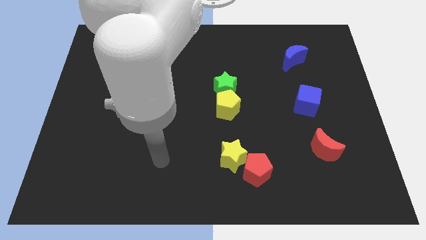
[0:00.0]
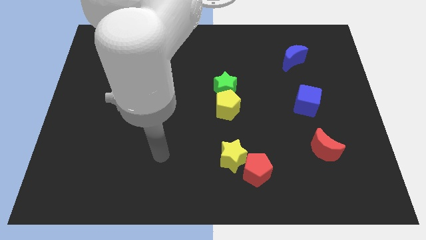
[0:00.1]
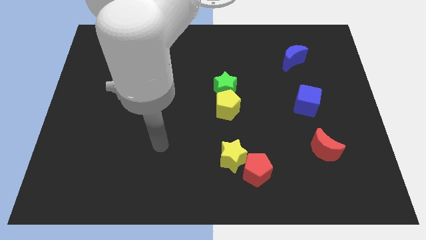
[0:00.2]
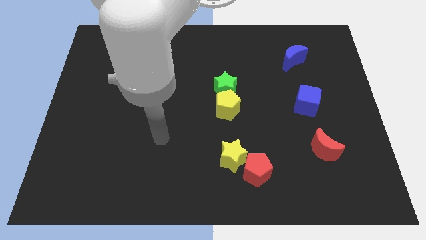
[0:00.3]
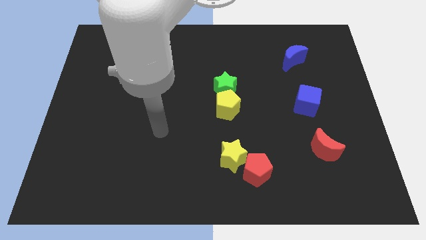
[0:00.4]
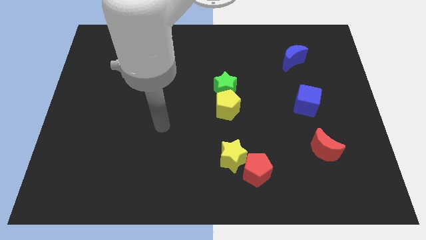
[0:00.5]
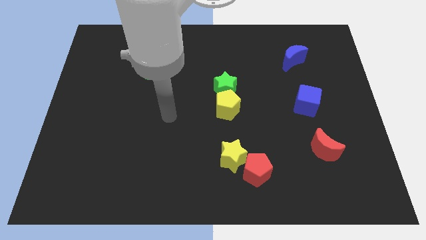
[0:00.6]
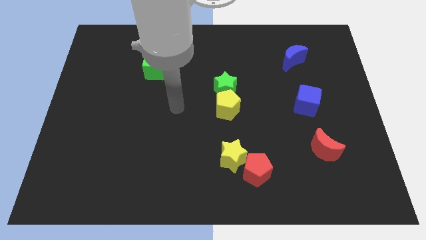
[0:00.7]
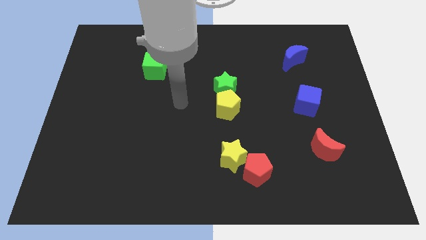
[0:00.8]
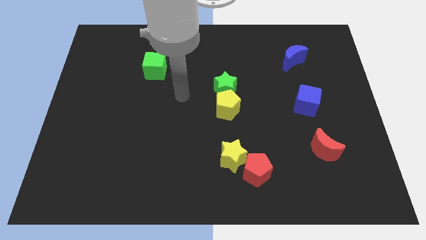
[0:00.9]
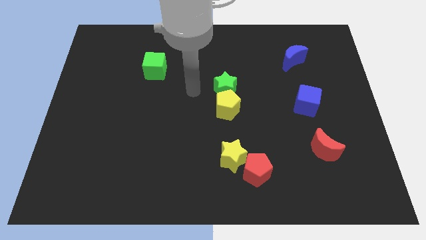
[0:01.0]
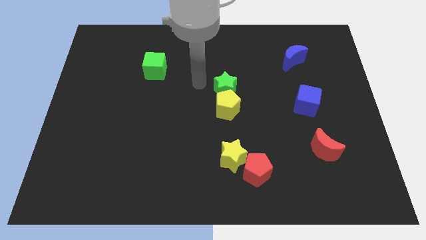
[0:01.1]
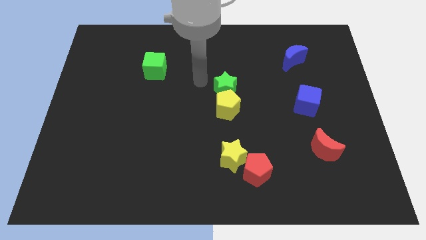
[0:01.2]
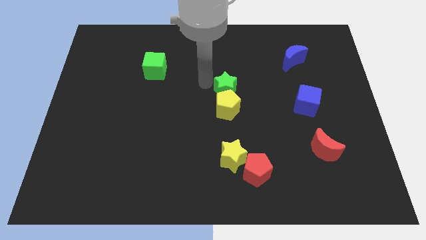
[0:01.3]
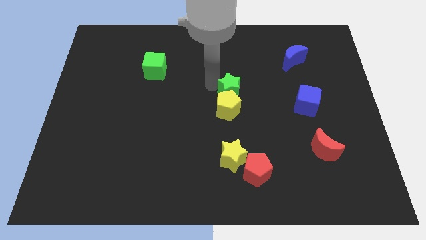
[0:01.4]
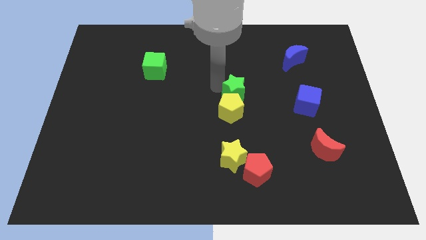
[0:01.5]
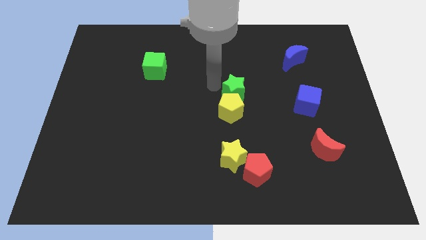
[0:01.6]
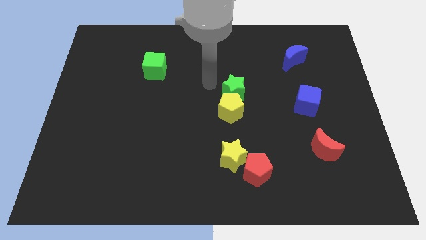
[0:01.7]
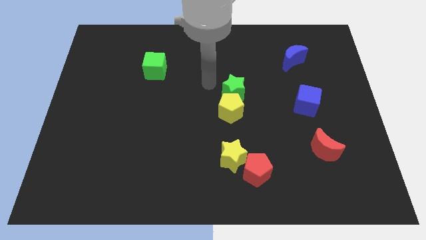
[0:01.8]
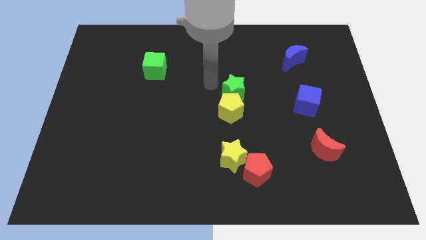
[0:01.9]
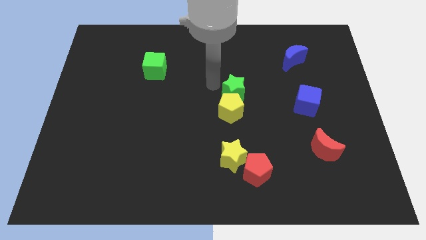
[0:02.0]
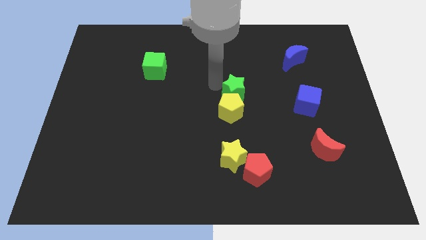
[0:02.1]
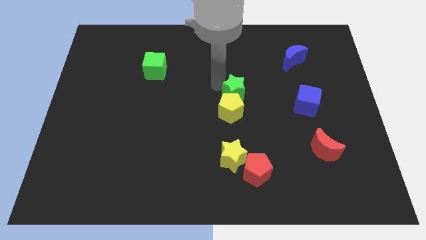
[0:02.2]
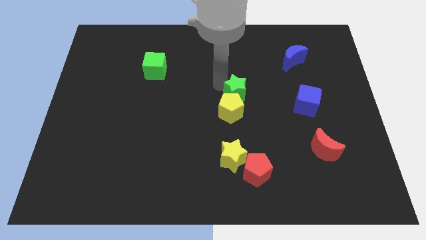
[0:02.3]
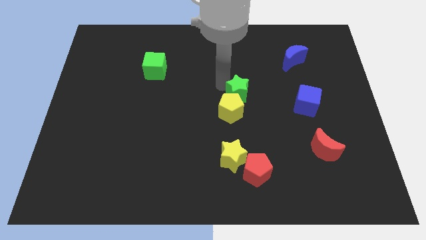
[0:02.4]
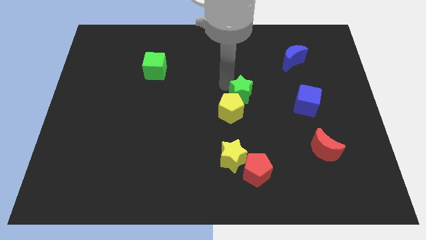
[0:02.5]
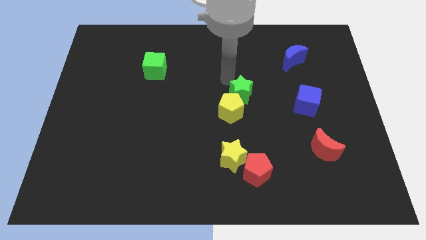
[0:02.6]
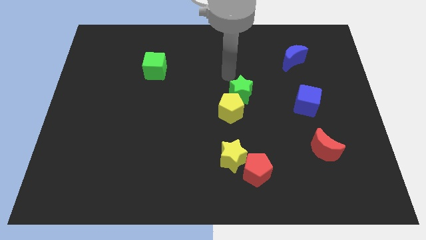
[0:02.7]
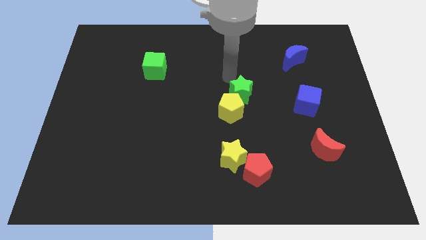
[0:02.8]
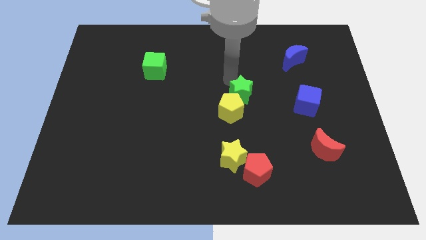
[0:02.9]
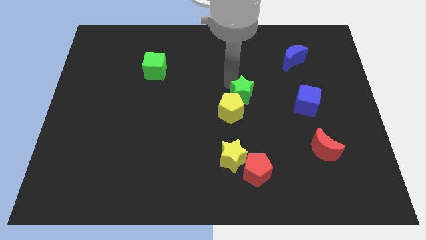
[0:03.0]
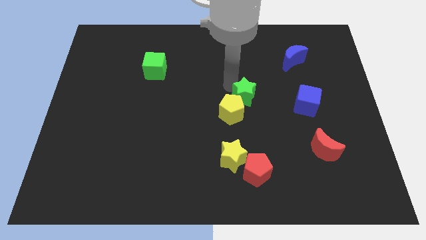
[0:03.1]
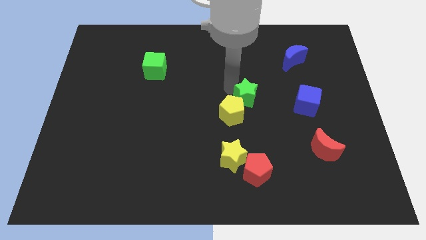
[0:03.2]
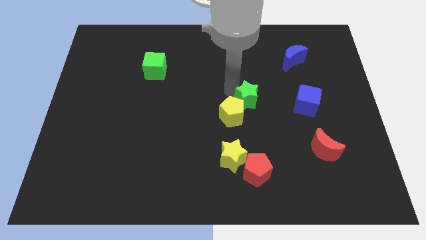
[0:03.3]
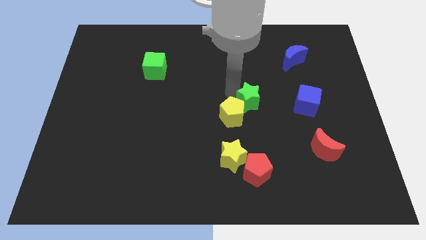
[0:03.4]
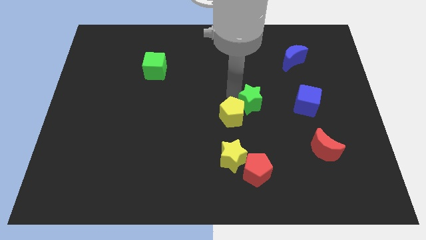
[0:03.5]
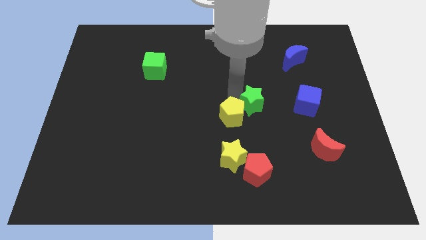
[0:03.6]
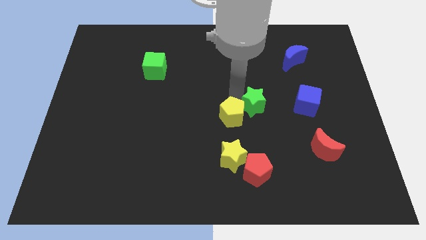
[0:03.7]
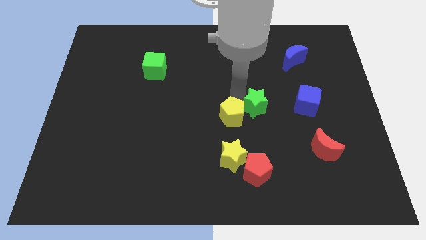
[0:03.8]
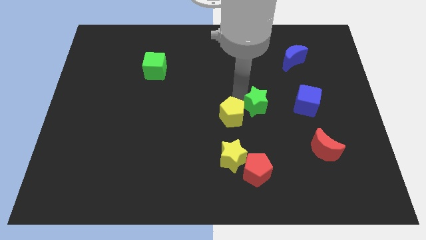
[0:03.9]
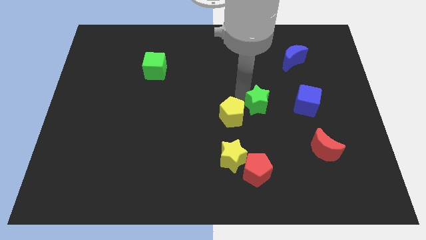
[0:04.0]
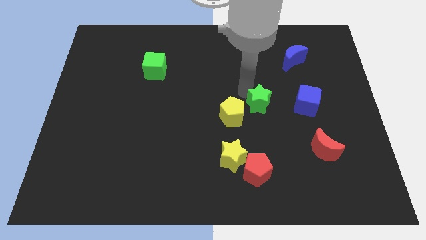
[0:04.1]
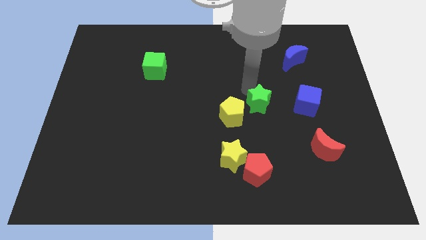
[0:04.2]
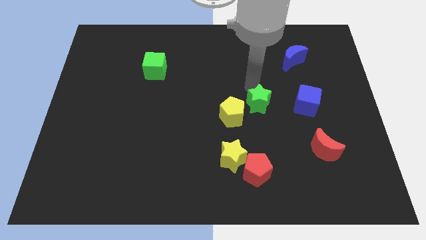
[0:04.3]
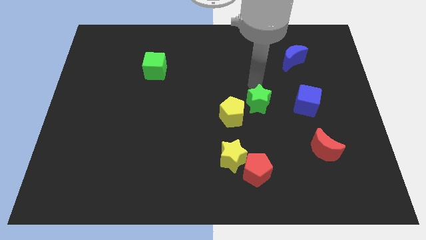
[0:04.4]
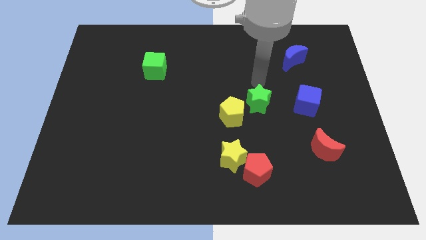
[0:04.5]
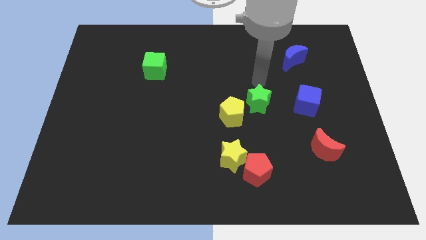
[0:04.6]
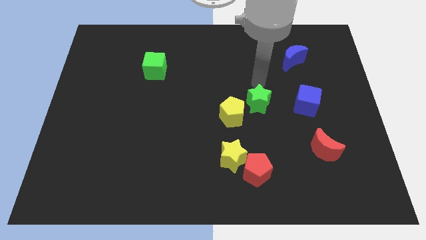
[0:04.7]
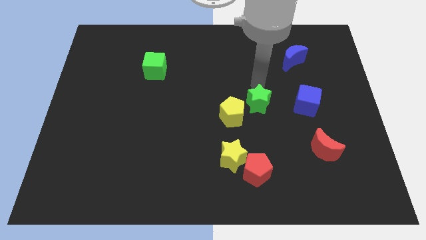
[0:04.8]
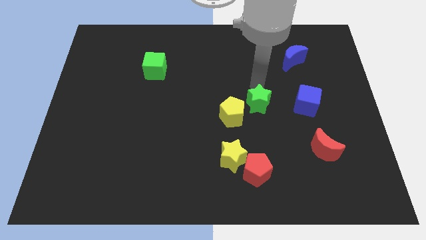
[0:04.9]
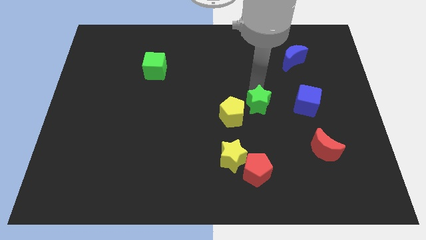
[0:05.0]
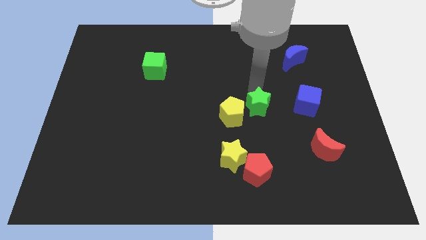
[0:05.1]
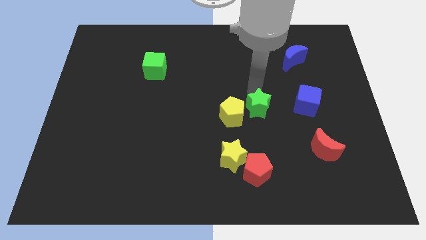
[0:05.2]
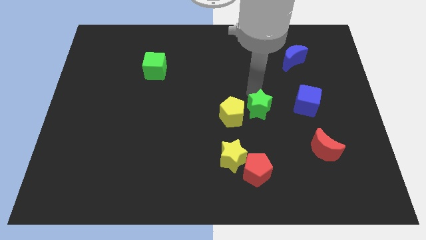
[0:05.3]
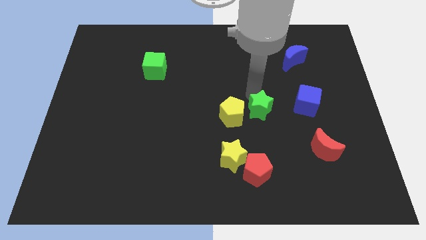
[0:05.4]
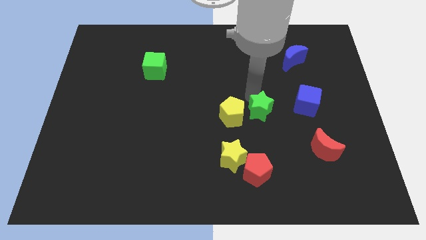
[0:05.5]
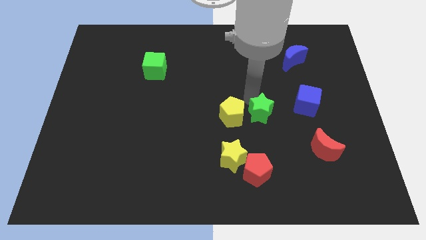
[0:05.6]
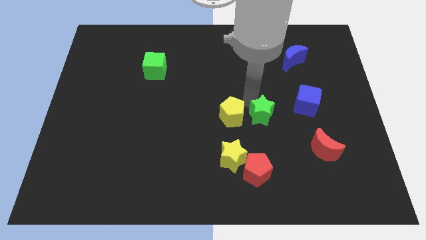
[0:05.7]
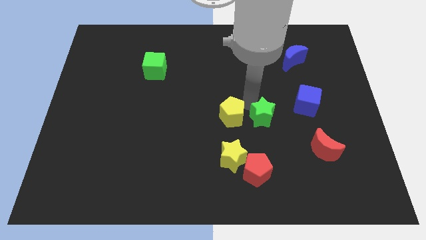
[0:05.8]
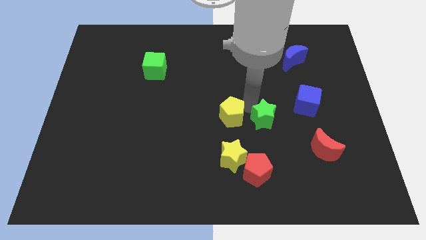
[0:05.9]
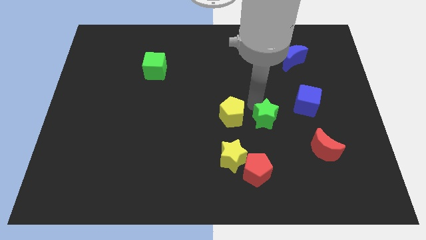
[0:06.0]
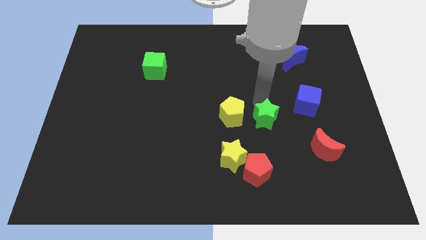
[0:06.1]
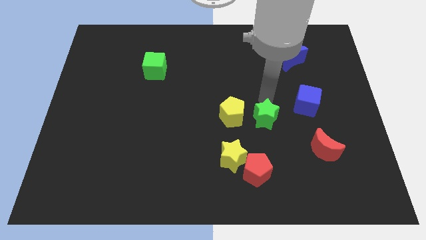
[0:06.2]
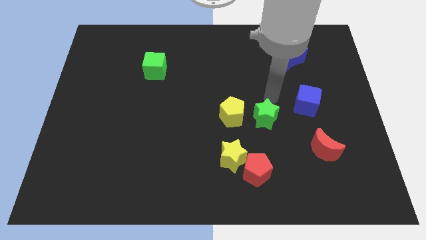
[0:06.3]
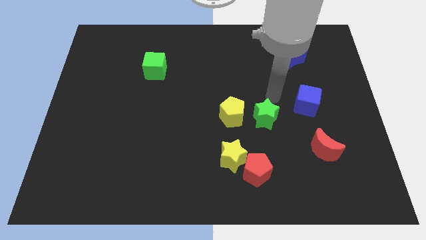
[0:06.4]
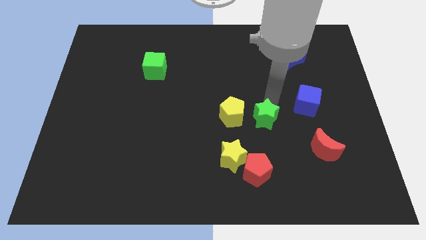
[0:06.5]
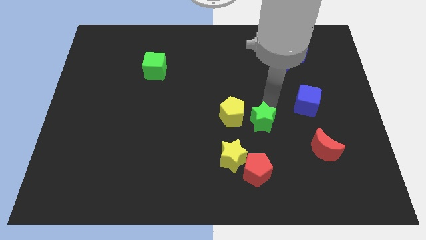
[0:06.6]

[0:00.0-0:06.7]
slide the green star to the top right of the yellow star
